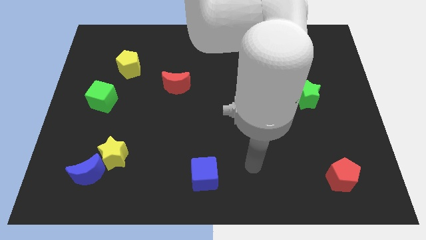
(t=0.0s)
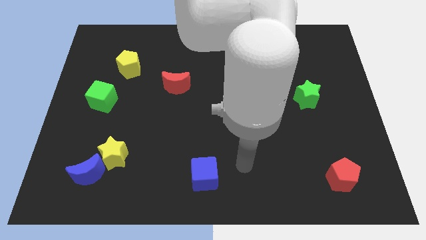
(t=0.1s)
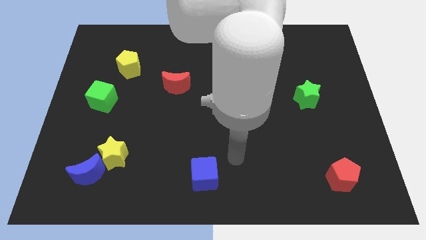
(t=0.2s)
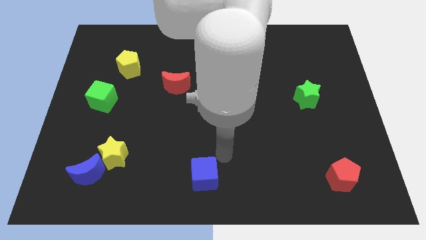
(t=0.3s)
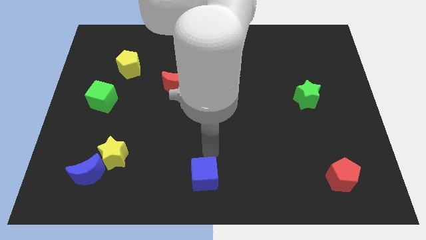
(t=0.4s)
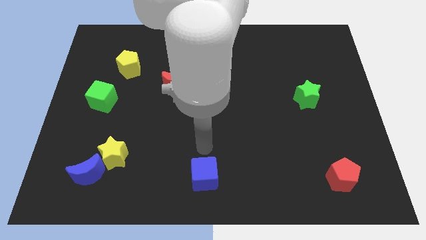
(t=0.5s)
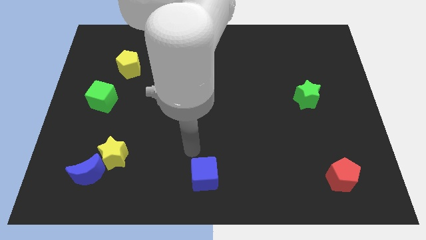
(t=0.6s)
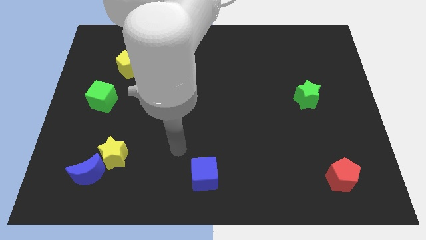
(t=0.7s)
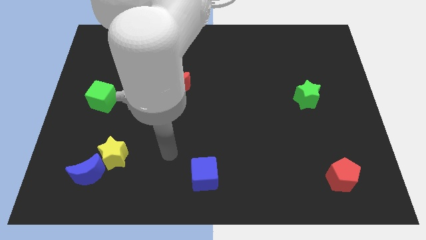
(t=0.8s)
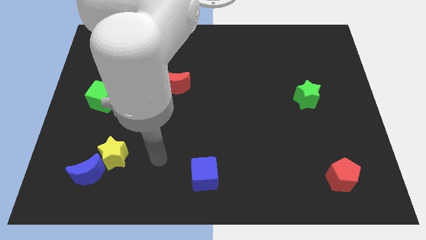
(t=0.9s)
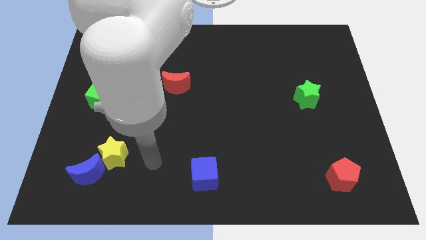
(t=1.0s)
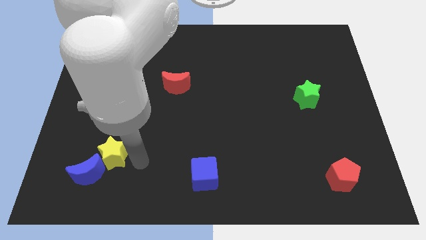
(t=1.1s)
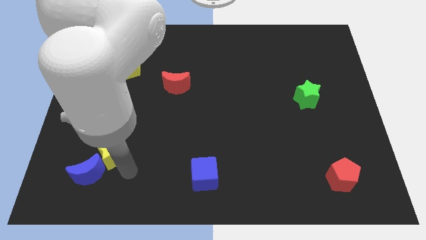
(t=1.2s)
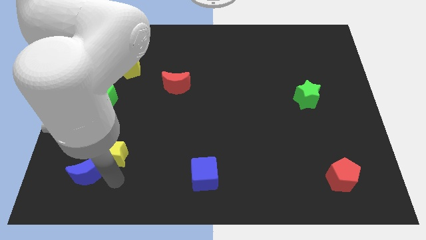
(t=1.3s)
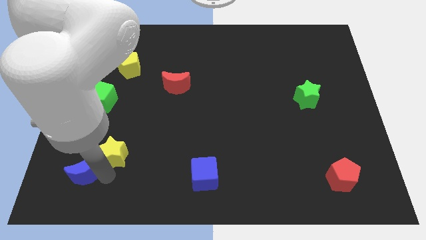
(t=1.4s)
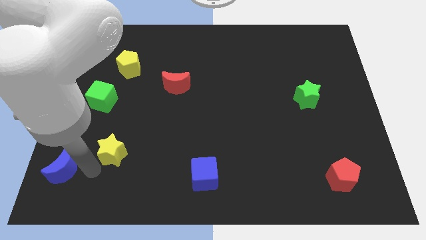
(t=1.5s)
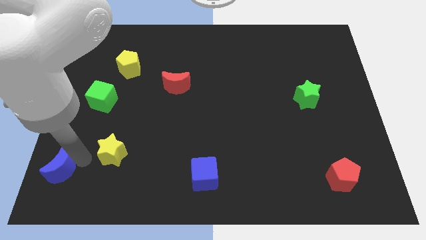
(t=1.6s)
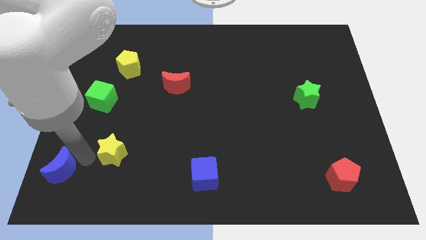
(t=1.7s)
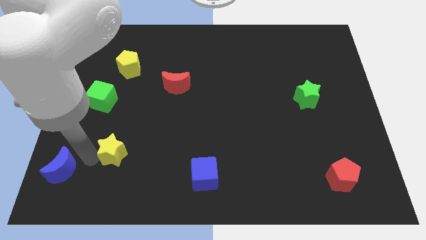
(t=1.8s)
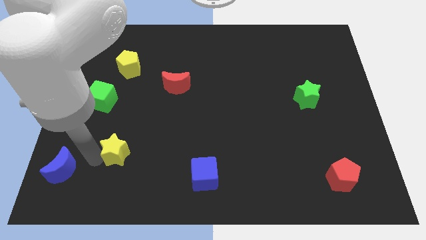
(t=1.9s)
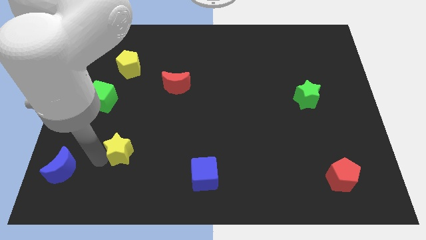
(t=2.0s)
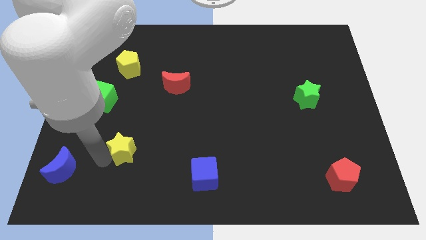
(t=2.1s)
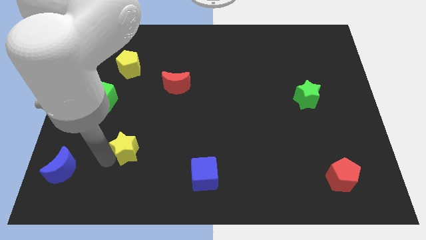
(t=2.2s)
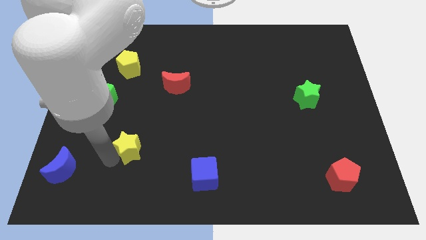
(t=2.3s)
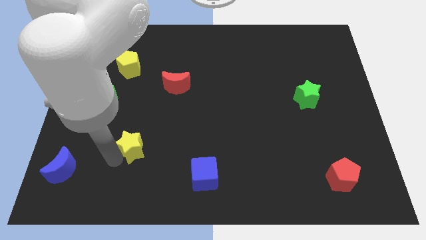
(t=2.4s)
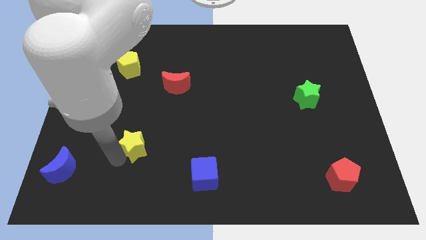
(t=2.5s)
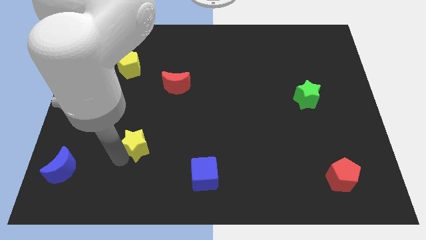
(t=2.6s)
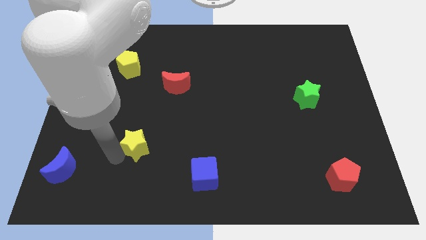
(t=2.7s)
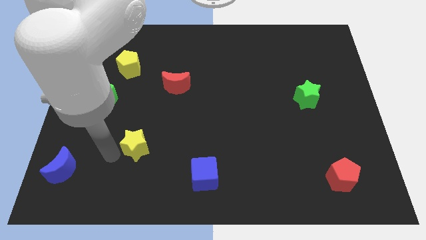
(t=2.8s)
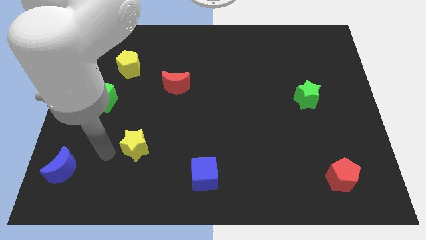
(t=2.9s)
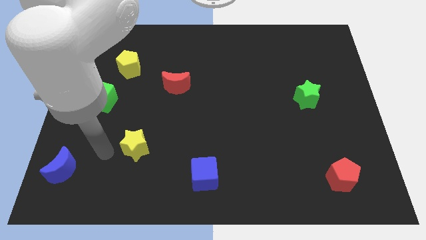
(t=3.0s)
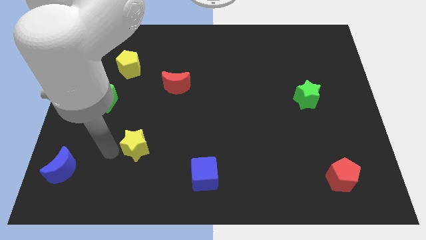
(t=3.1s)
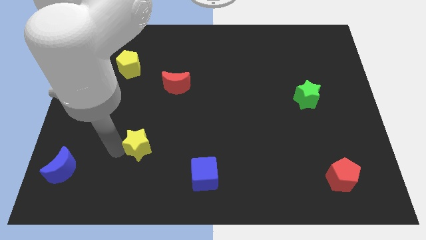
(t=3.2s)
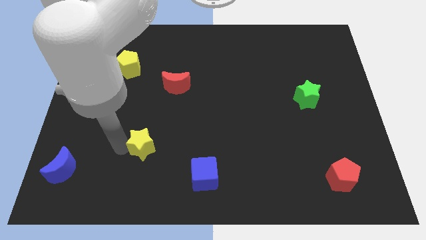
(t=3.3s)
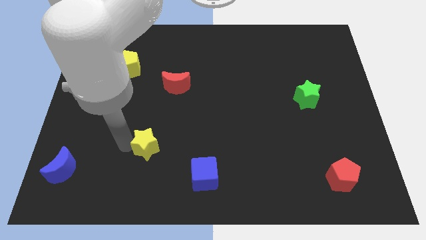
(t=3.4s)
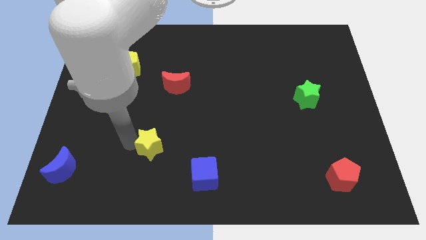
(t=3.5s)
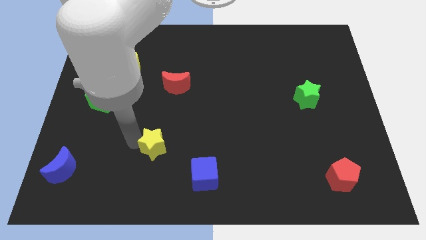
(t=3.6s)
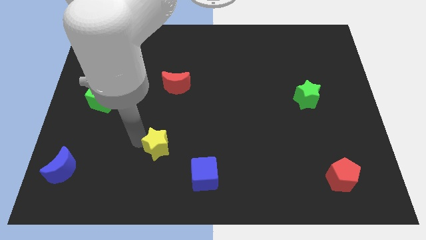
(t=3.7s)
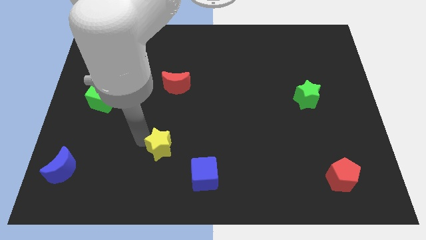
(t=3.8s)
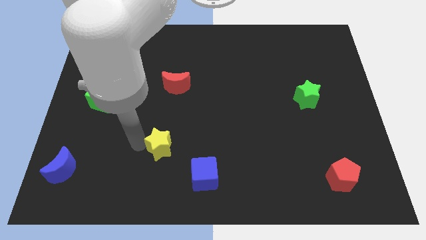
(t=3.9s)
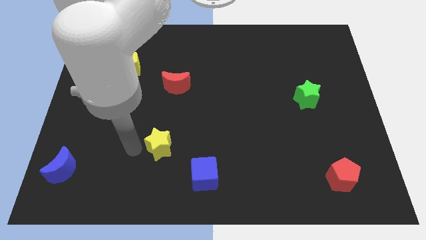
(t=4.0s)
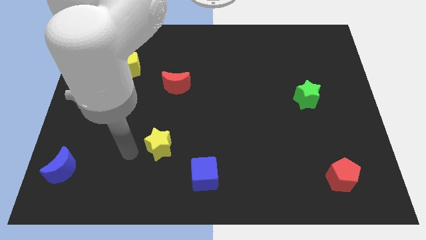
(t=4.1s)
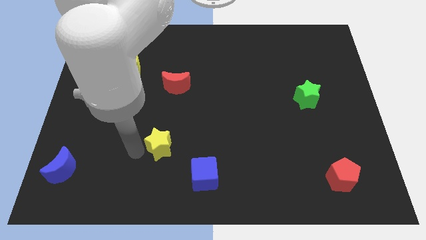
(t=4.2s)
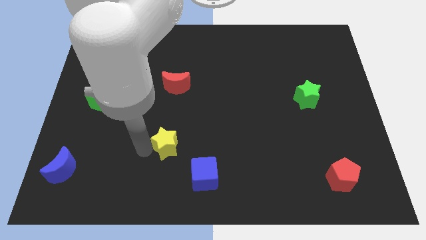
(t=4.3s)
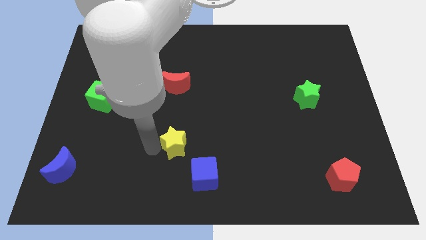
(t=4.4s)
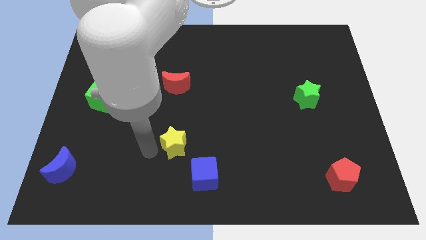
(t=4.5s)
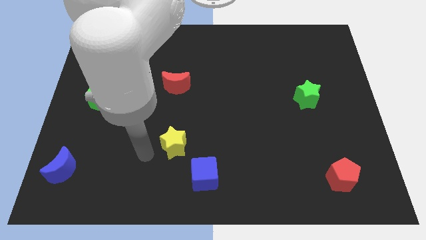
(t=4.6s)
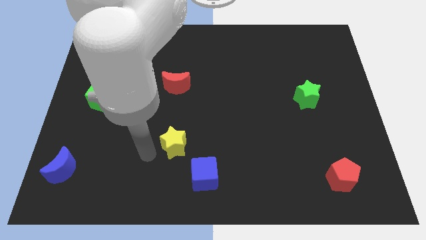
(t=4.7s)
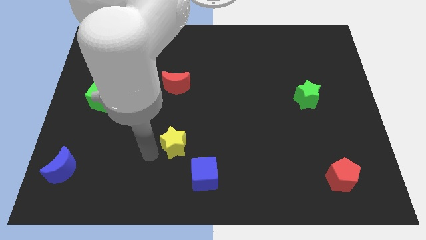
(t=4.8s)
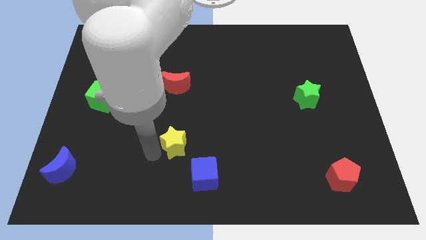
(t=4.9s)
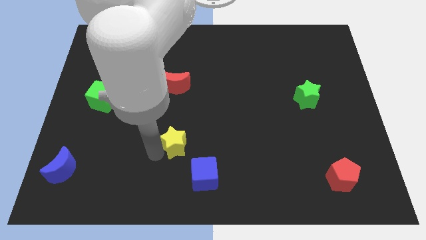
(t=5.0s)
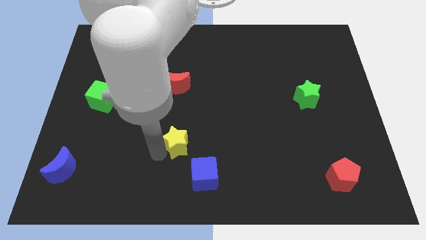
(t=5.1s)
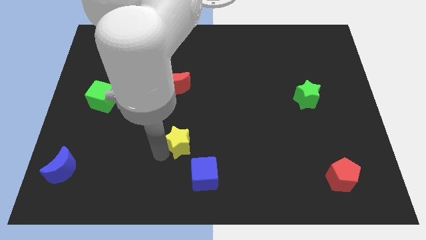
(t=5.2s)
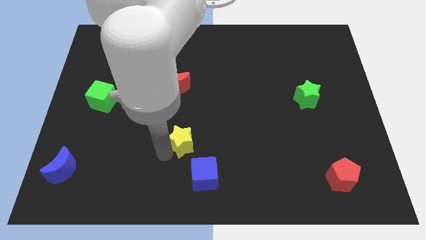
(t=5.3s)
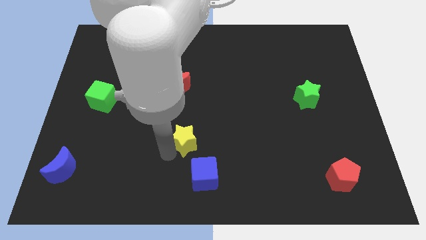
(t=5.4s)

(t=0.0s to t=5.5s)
push the yellow star above the blue cube

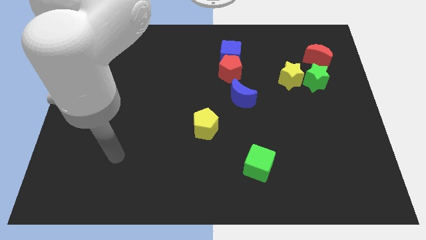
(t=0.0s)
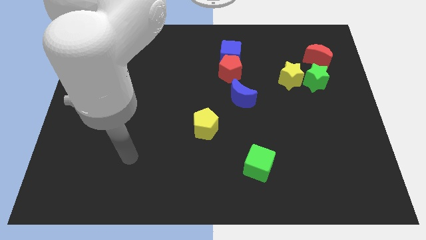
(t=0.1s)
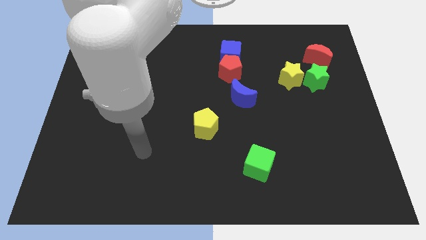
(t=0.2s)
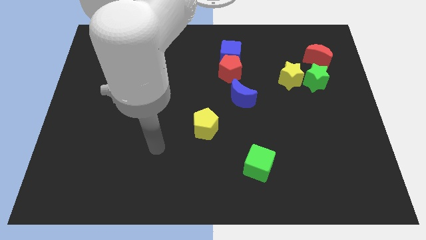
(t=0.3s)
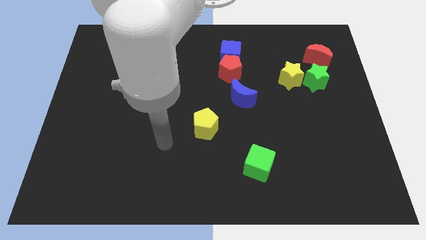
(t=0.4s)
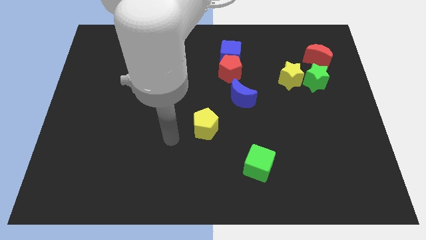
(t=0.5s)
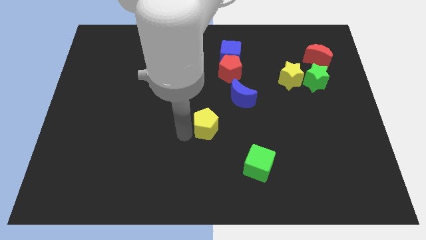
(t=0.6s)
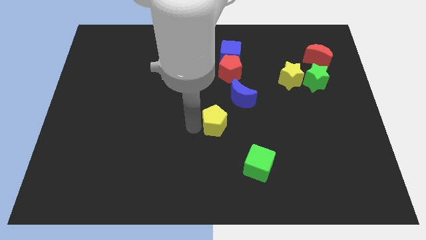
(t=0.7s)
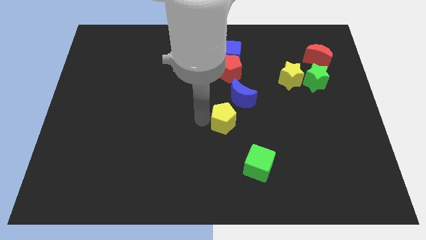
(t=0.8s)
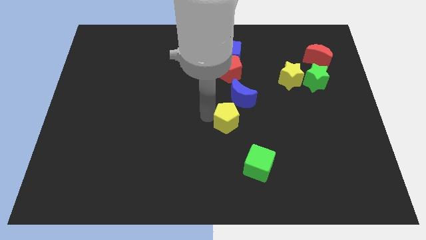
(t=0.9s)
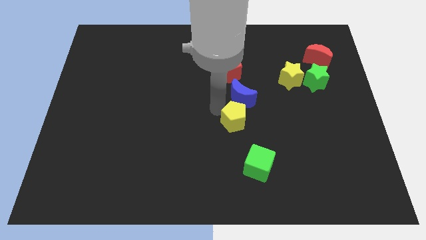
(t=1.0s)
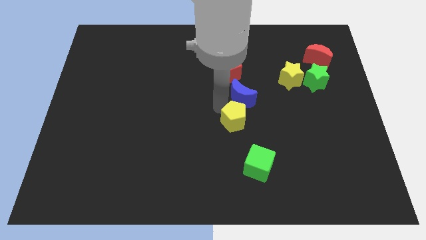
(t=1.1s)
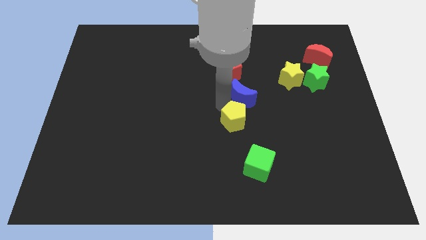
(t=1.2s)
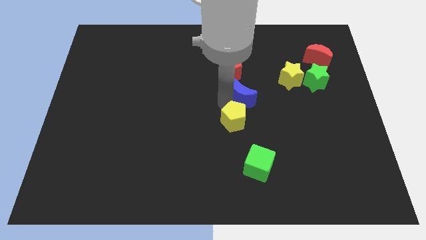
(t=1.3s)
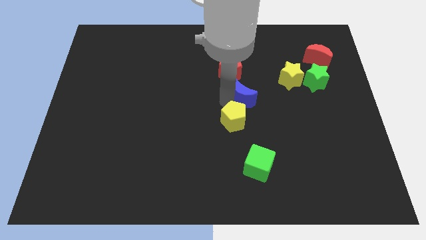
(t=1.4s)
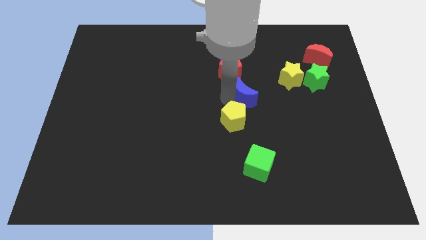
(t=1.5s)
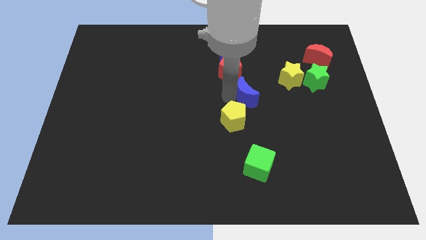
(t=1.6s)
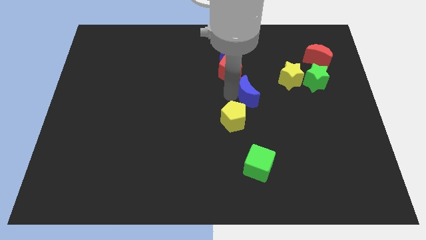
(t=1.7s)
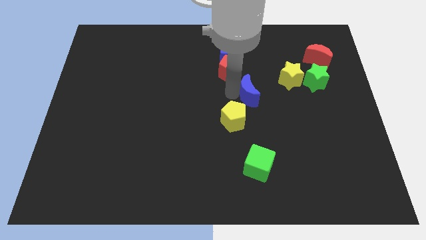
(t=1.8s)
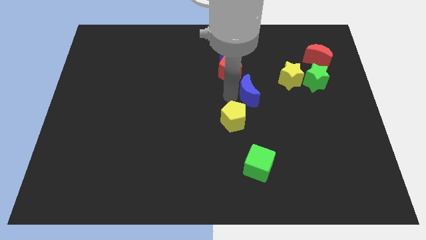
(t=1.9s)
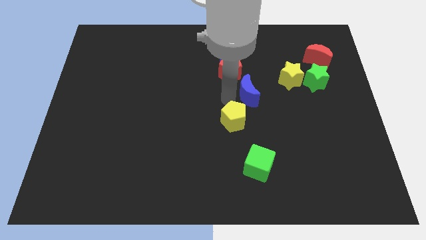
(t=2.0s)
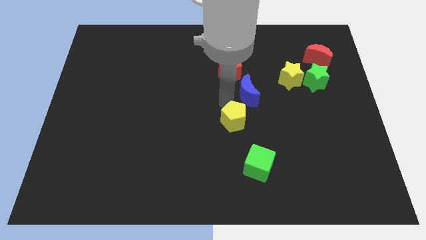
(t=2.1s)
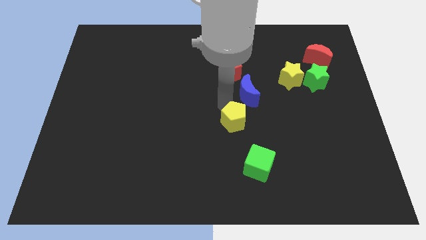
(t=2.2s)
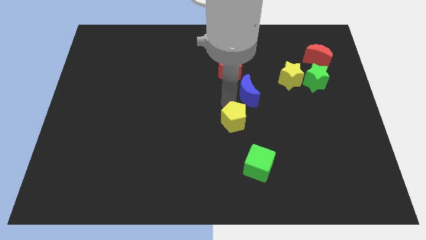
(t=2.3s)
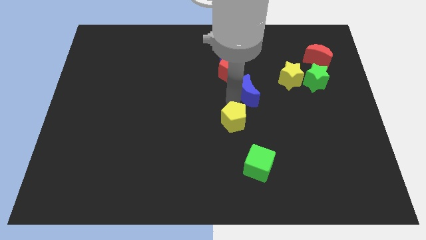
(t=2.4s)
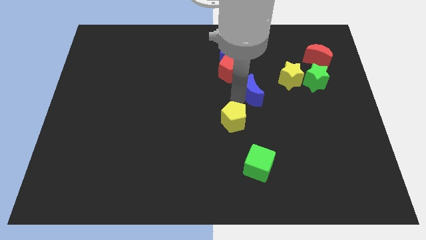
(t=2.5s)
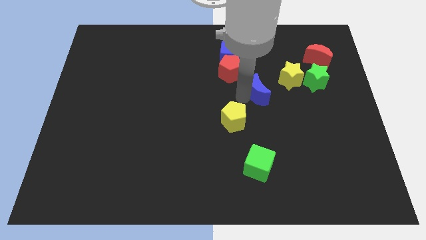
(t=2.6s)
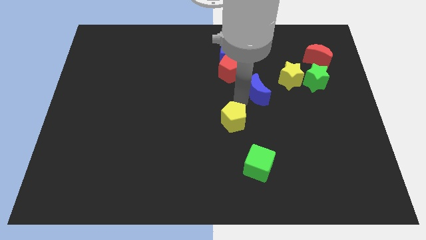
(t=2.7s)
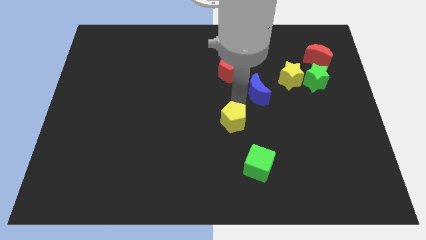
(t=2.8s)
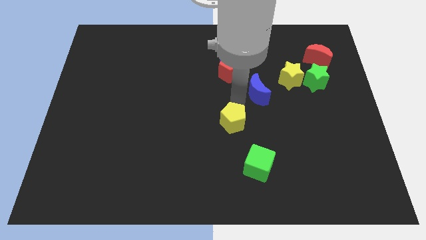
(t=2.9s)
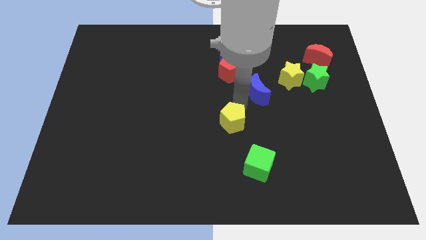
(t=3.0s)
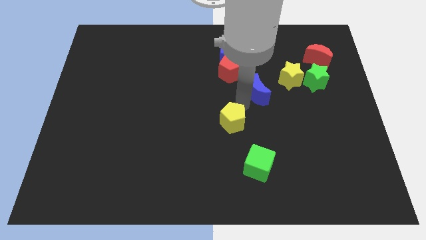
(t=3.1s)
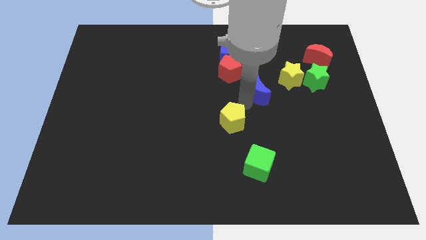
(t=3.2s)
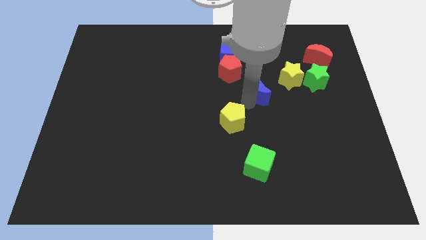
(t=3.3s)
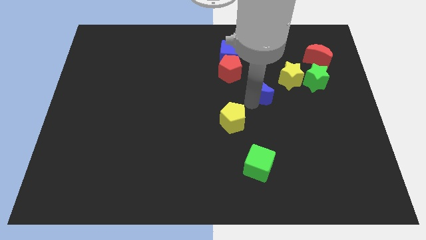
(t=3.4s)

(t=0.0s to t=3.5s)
move the blue moon to the left of the green star
